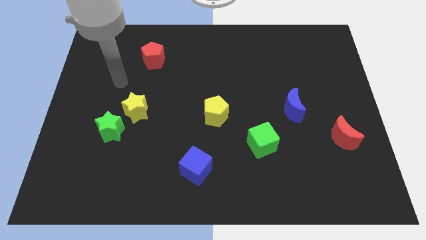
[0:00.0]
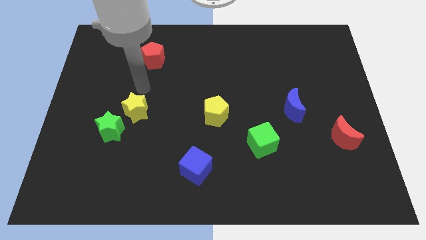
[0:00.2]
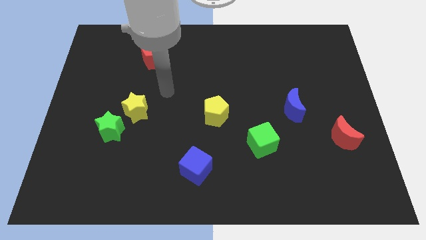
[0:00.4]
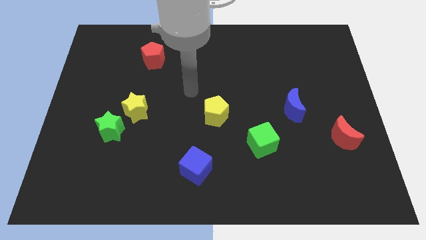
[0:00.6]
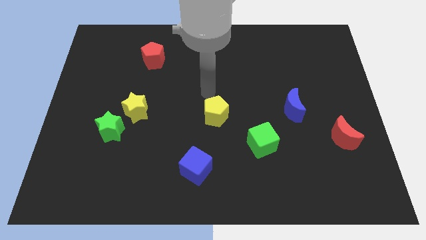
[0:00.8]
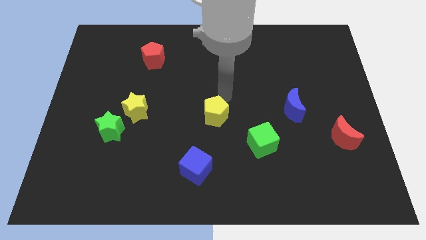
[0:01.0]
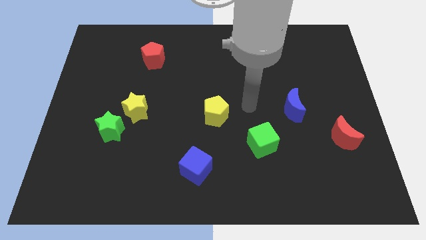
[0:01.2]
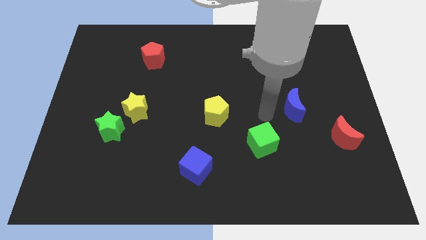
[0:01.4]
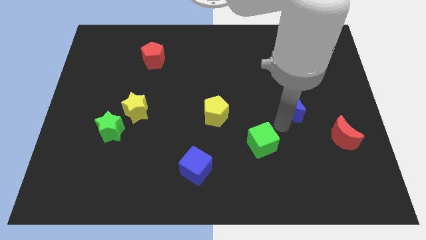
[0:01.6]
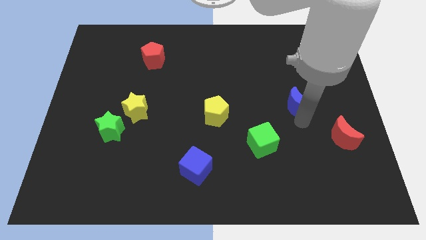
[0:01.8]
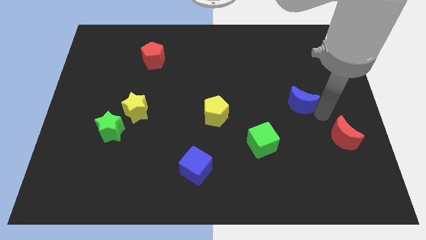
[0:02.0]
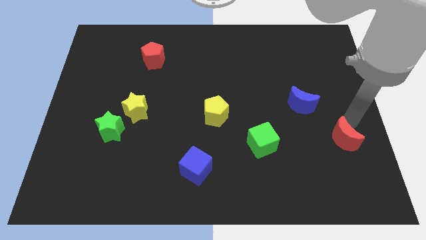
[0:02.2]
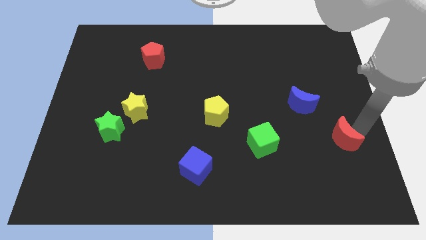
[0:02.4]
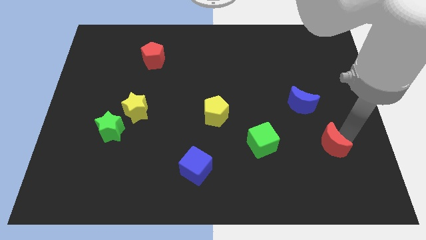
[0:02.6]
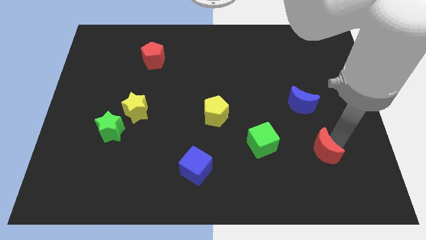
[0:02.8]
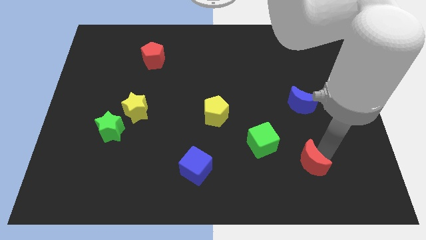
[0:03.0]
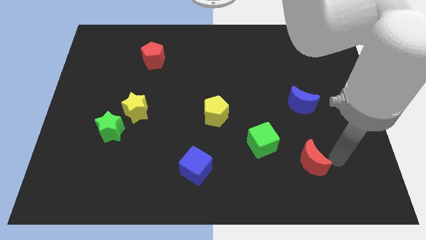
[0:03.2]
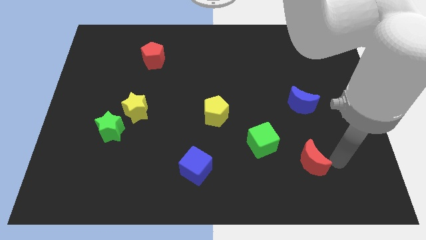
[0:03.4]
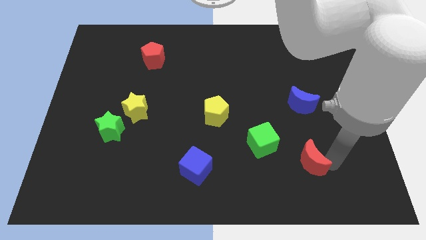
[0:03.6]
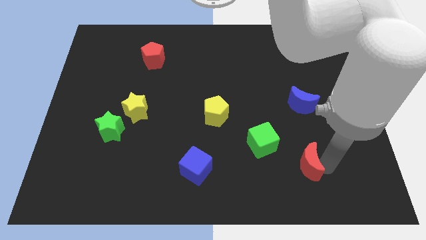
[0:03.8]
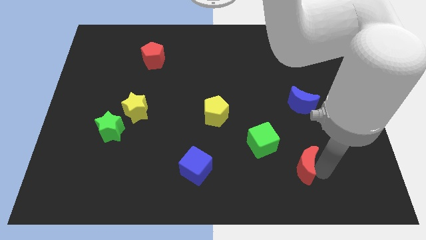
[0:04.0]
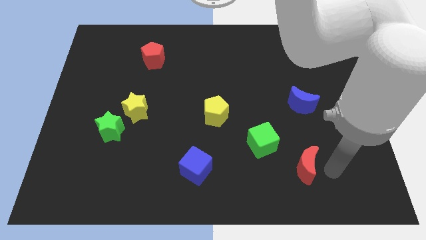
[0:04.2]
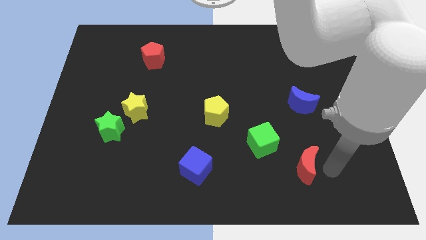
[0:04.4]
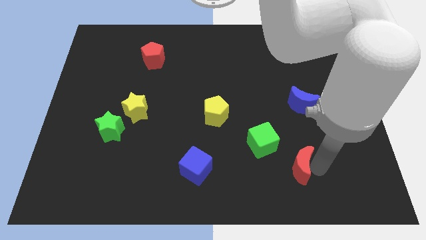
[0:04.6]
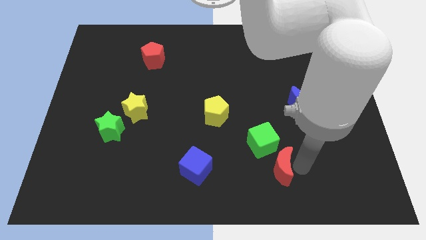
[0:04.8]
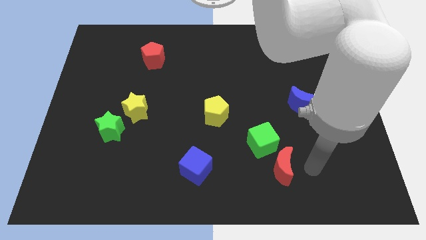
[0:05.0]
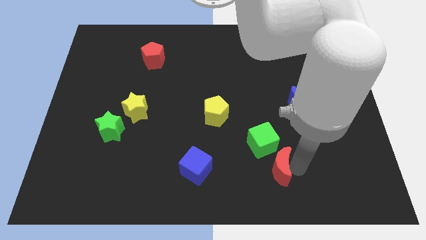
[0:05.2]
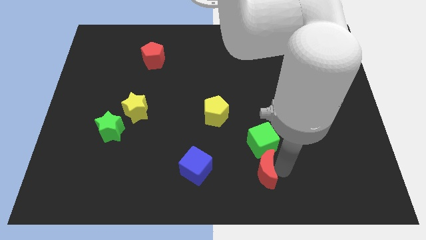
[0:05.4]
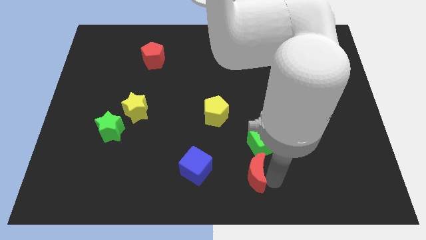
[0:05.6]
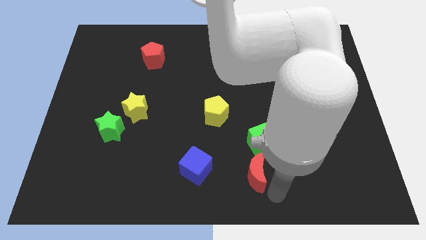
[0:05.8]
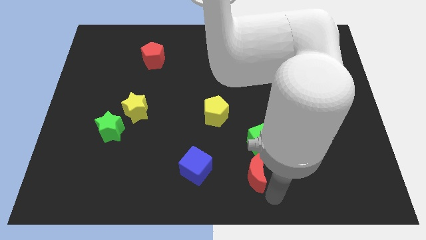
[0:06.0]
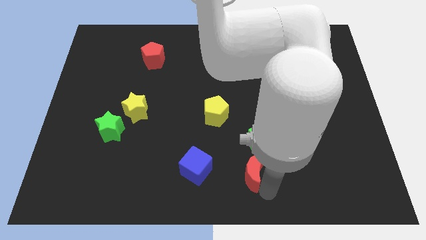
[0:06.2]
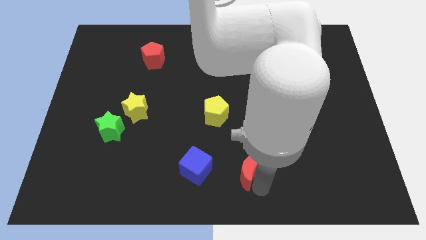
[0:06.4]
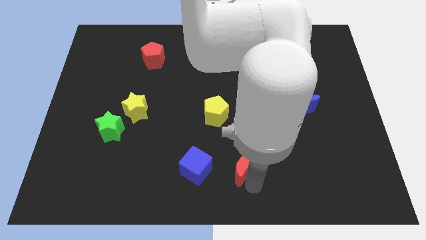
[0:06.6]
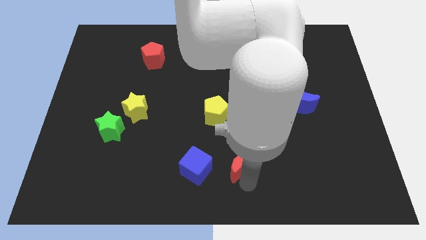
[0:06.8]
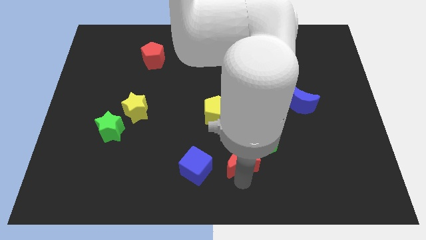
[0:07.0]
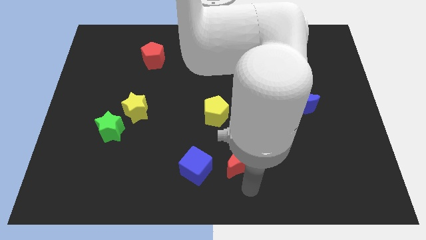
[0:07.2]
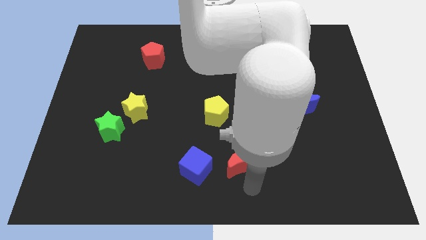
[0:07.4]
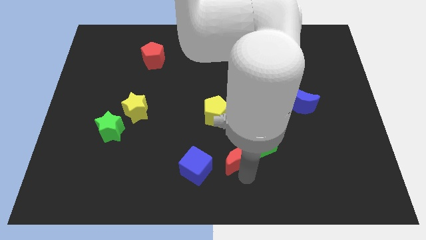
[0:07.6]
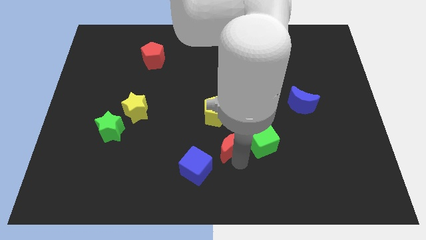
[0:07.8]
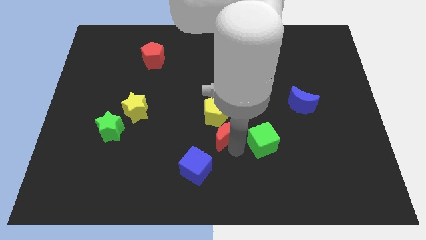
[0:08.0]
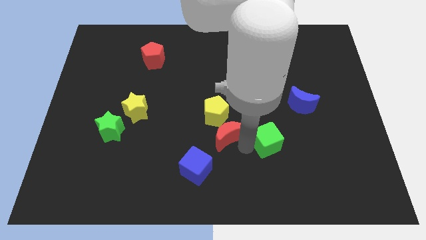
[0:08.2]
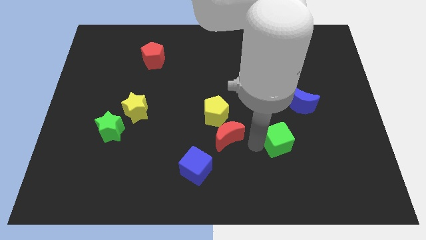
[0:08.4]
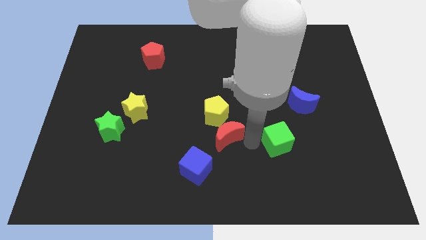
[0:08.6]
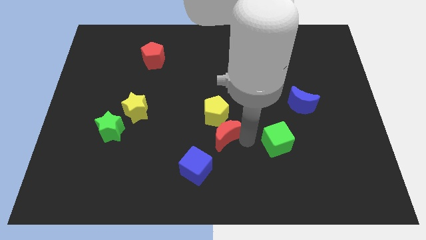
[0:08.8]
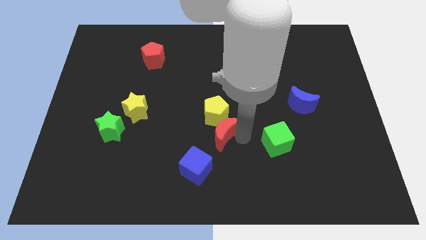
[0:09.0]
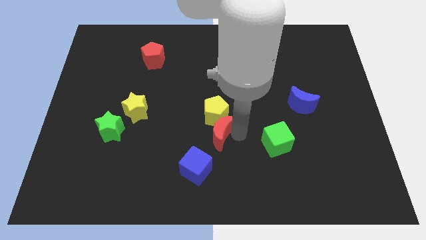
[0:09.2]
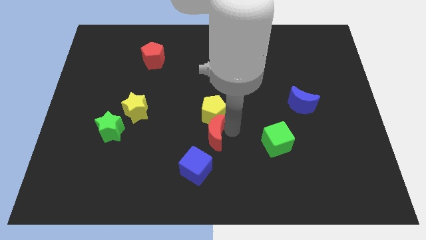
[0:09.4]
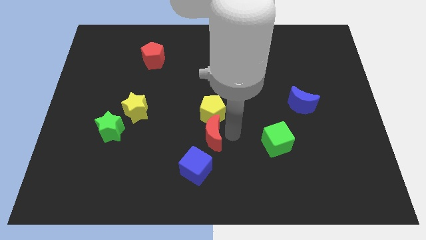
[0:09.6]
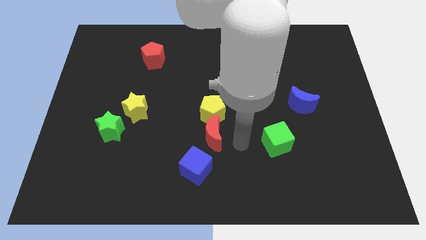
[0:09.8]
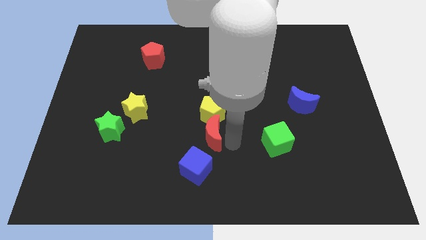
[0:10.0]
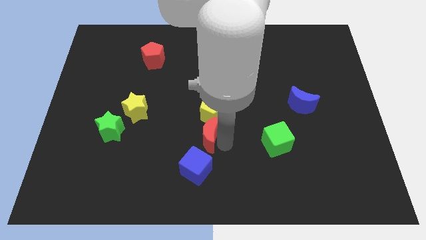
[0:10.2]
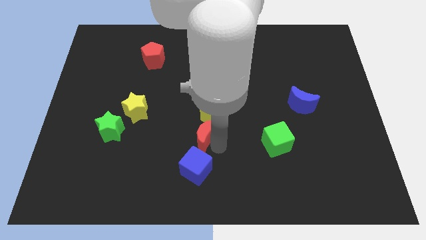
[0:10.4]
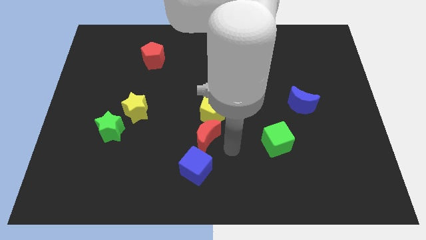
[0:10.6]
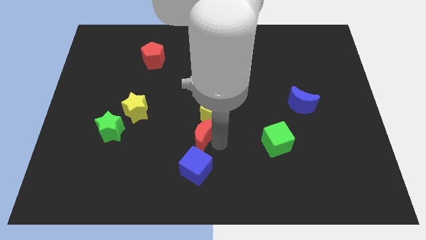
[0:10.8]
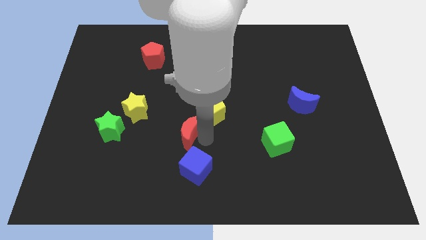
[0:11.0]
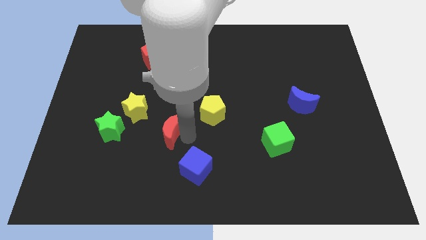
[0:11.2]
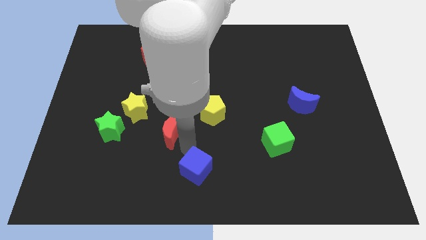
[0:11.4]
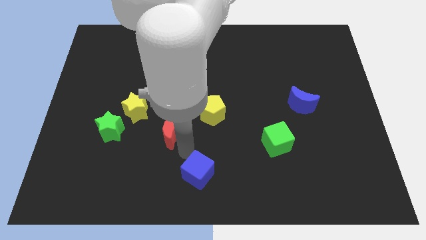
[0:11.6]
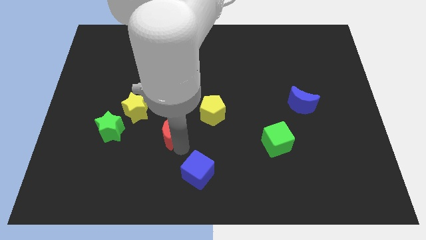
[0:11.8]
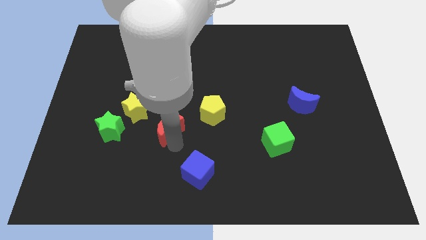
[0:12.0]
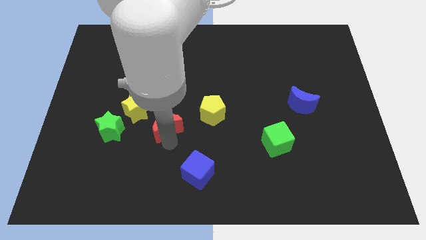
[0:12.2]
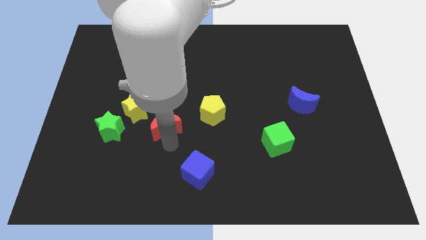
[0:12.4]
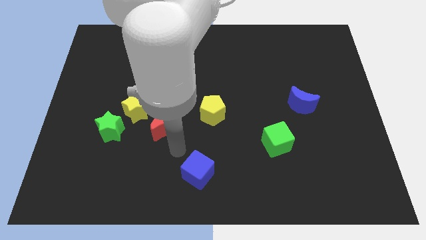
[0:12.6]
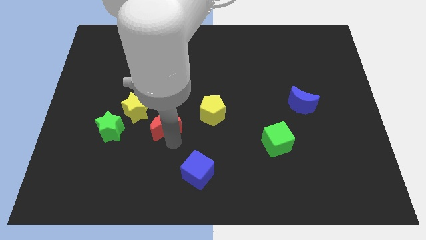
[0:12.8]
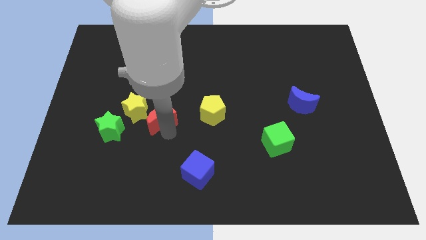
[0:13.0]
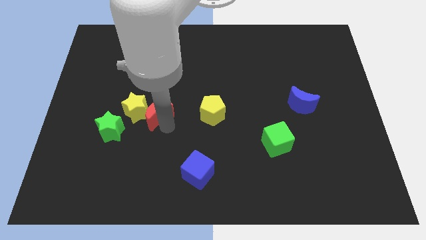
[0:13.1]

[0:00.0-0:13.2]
slide the red moon next to the yellow star
